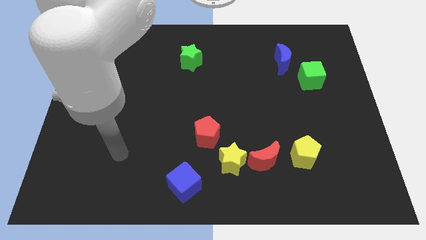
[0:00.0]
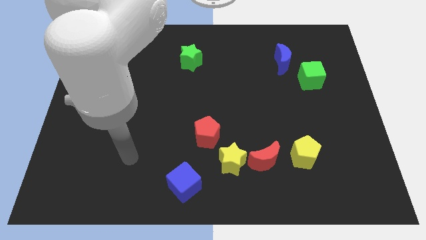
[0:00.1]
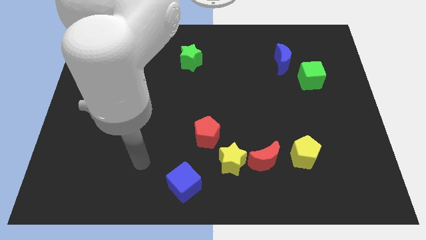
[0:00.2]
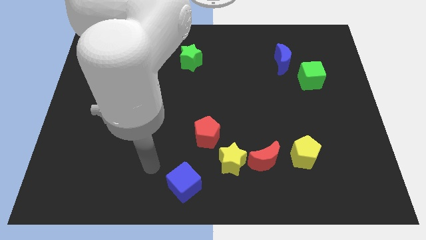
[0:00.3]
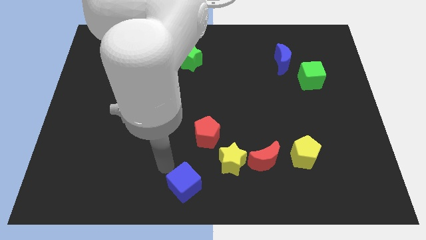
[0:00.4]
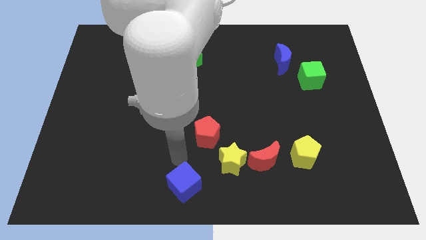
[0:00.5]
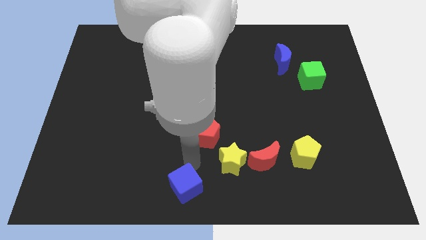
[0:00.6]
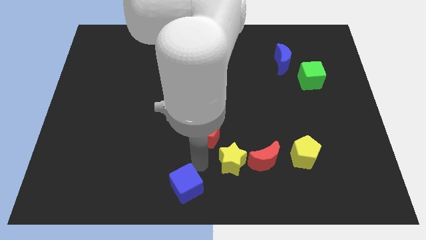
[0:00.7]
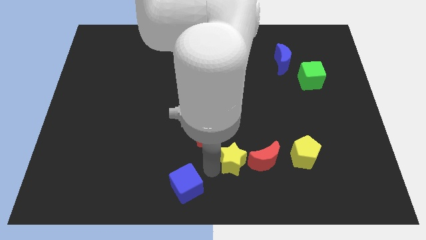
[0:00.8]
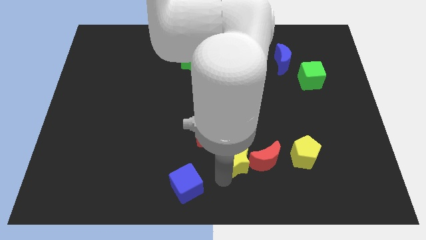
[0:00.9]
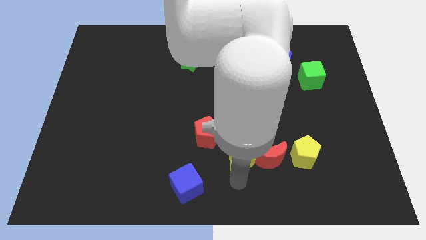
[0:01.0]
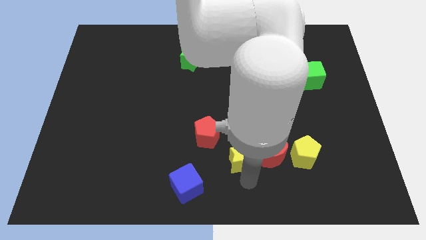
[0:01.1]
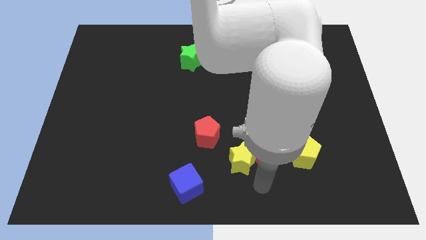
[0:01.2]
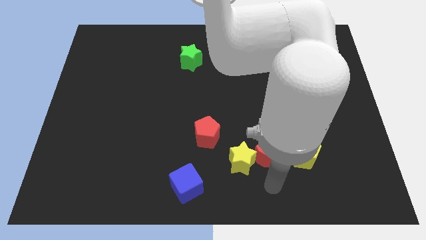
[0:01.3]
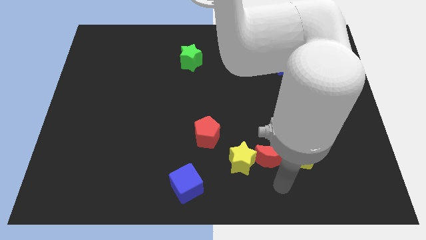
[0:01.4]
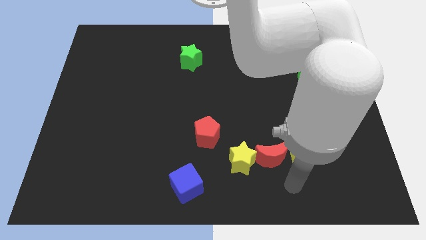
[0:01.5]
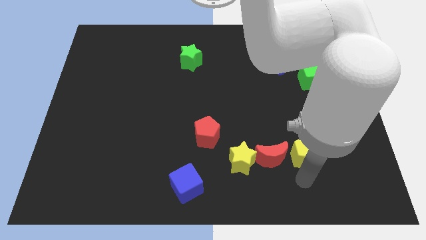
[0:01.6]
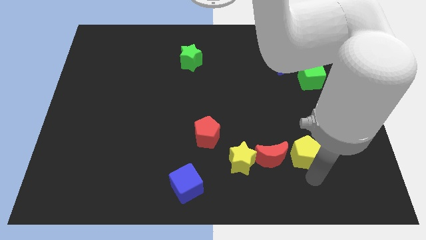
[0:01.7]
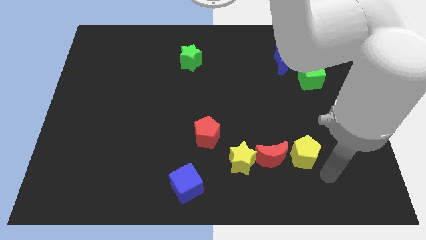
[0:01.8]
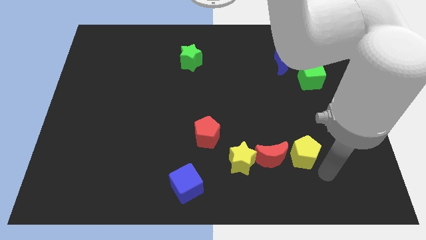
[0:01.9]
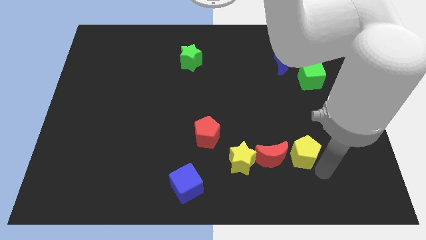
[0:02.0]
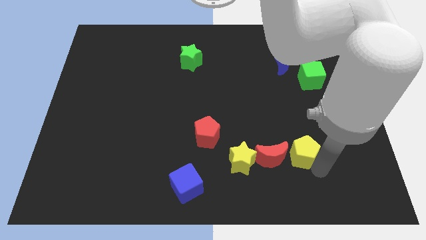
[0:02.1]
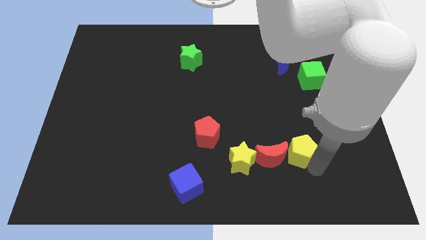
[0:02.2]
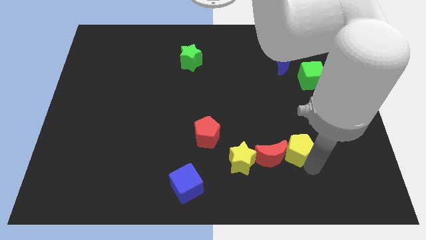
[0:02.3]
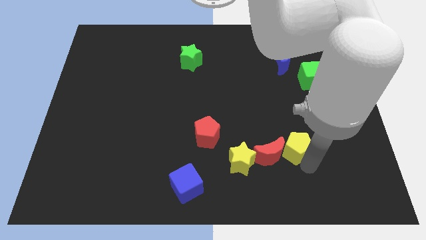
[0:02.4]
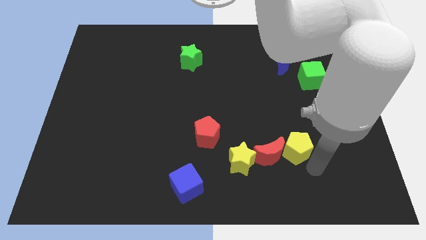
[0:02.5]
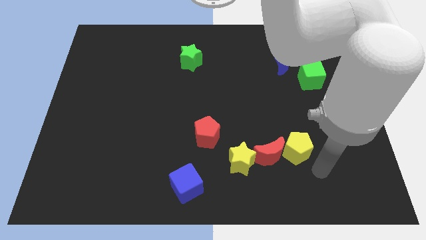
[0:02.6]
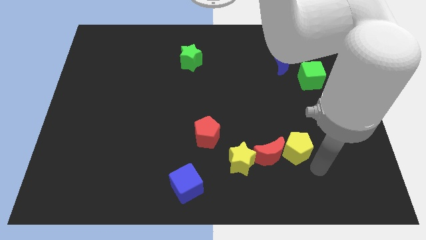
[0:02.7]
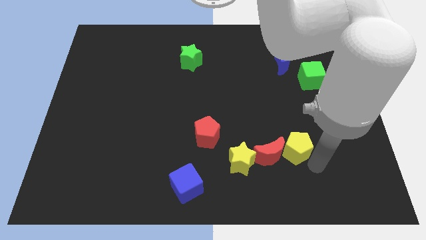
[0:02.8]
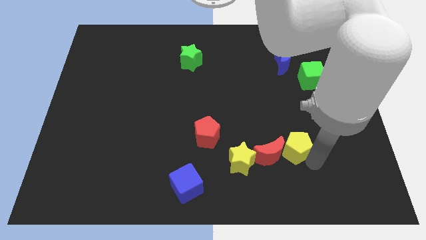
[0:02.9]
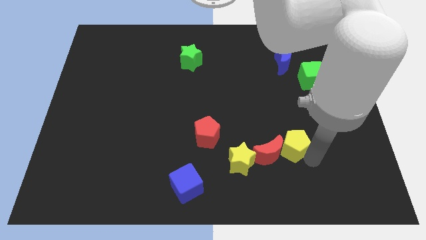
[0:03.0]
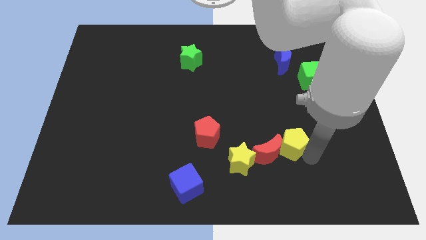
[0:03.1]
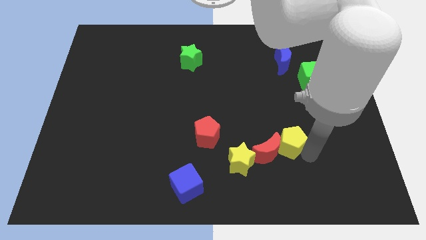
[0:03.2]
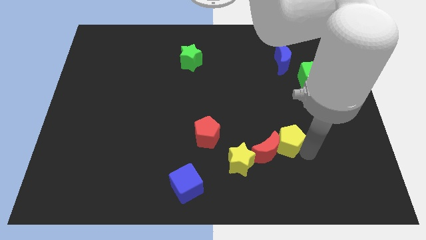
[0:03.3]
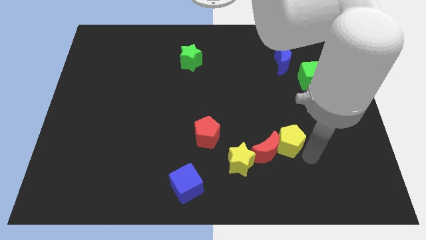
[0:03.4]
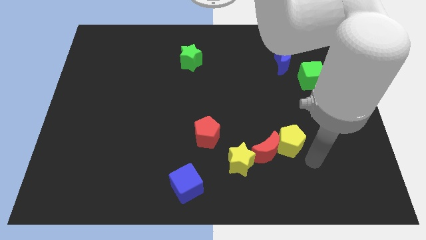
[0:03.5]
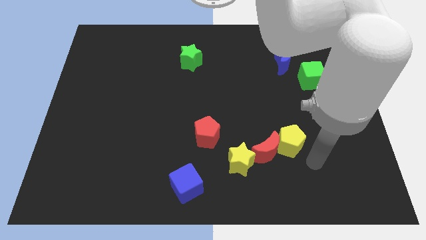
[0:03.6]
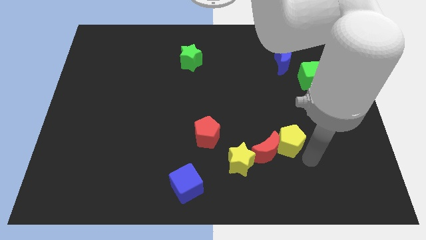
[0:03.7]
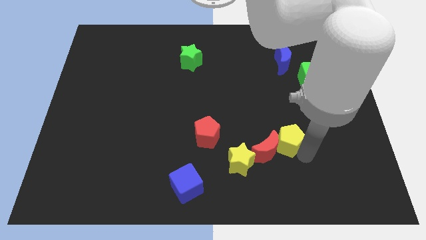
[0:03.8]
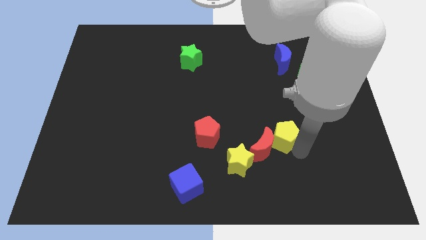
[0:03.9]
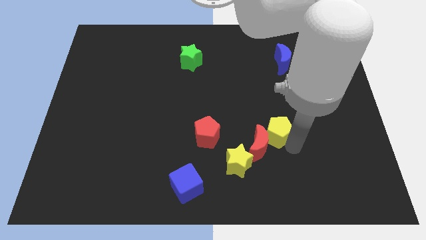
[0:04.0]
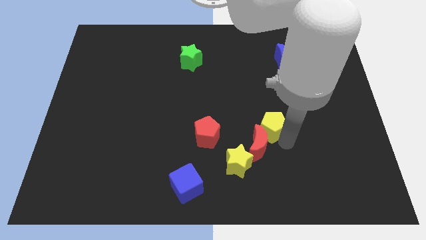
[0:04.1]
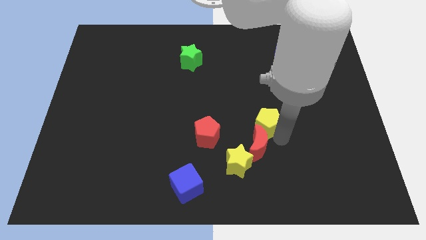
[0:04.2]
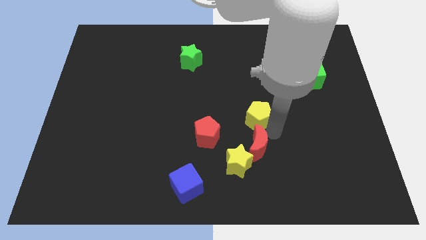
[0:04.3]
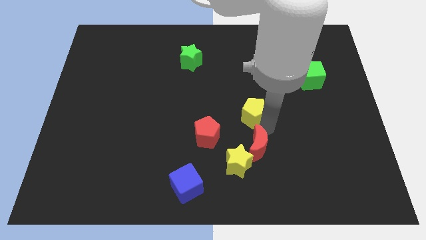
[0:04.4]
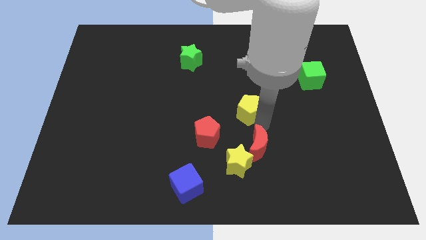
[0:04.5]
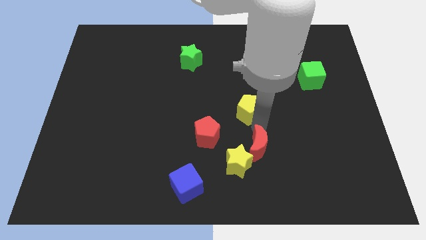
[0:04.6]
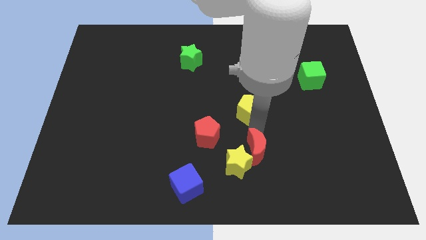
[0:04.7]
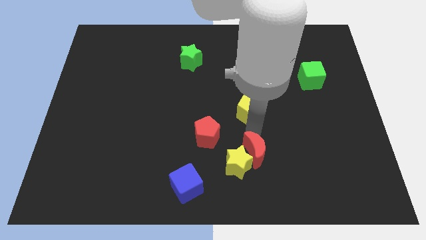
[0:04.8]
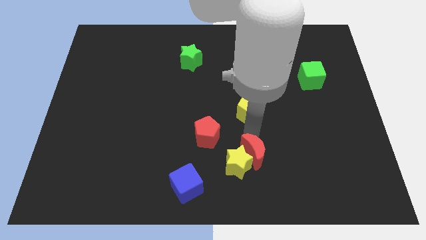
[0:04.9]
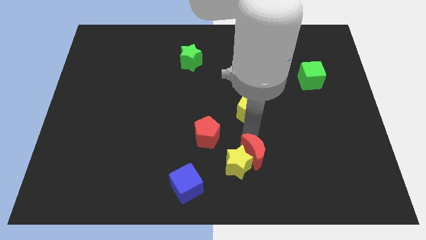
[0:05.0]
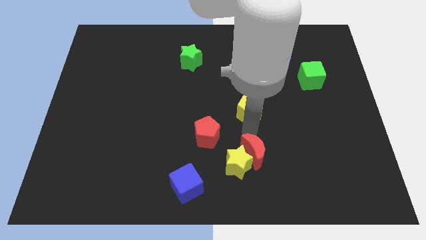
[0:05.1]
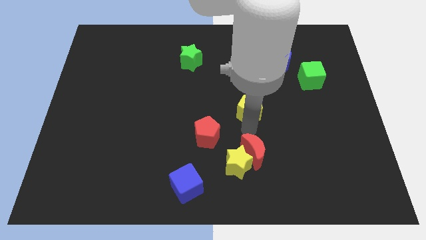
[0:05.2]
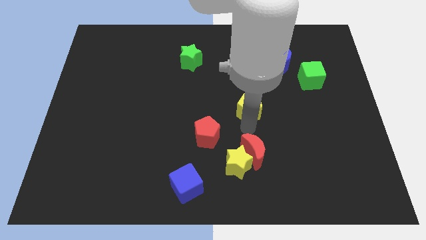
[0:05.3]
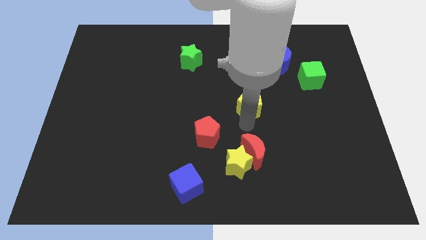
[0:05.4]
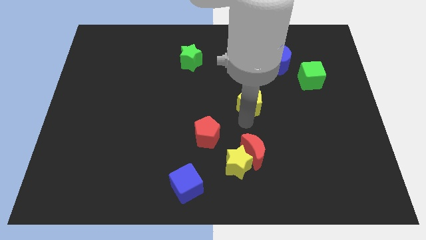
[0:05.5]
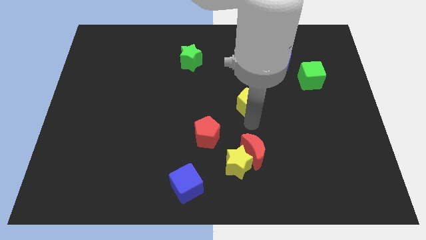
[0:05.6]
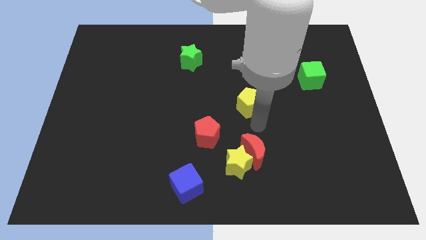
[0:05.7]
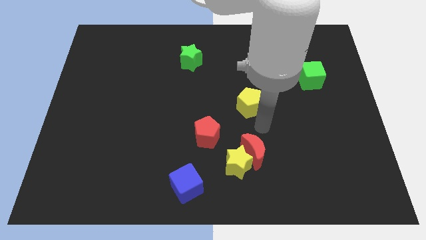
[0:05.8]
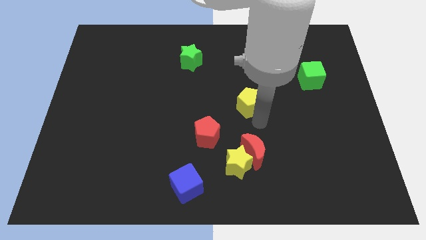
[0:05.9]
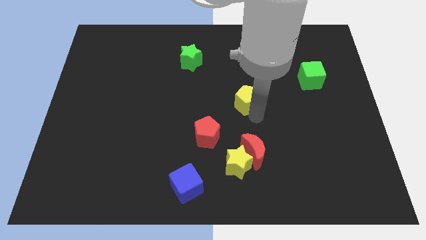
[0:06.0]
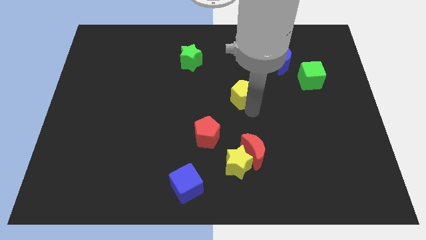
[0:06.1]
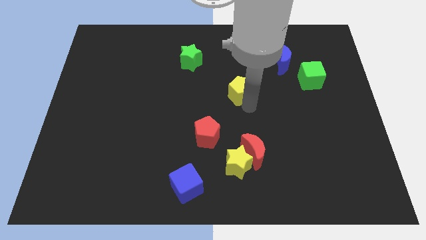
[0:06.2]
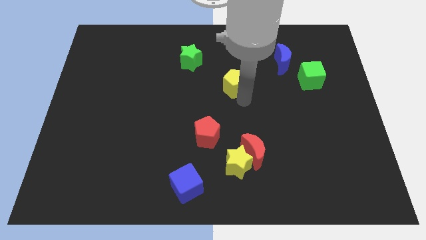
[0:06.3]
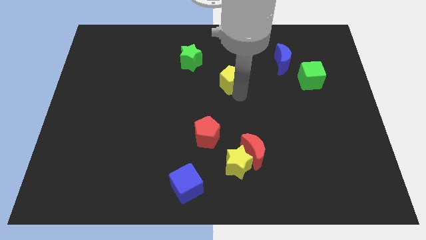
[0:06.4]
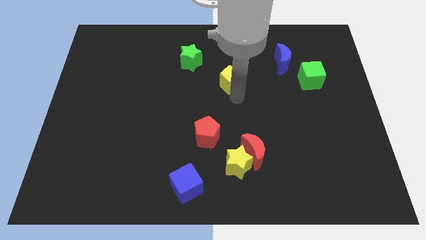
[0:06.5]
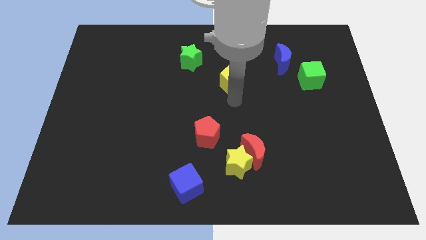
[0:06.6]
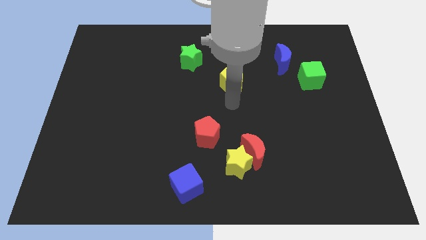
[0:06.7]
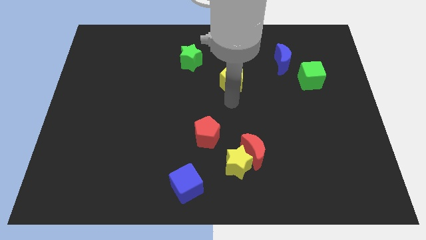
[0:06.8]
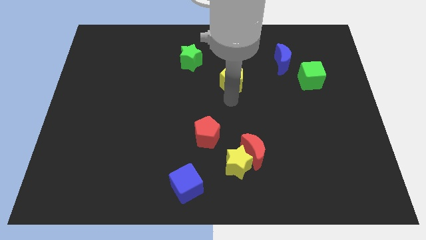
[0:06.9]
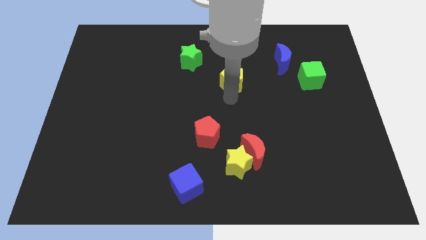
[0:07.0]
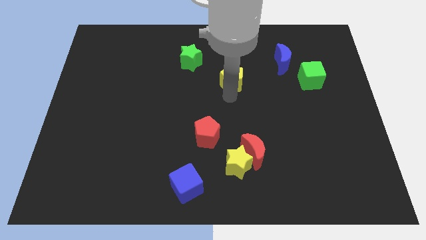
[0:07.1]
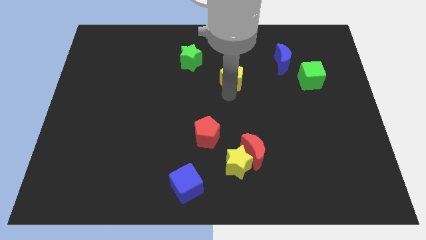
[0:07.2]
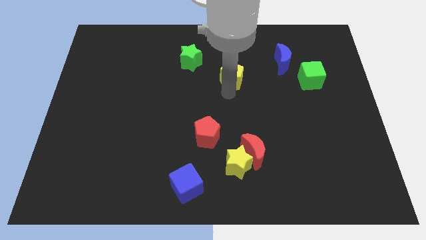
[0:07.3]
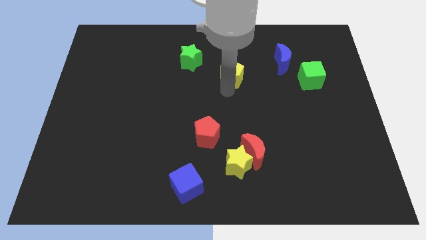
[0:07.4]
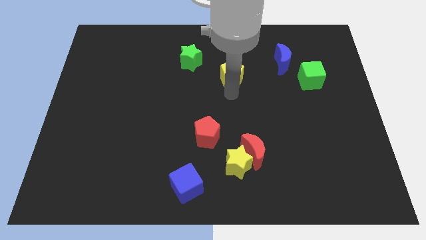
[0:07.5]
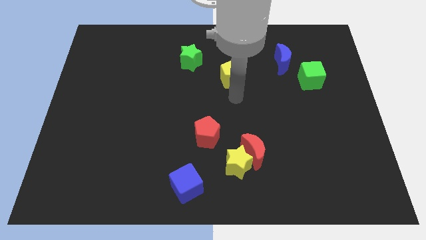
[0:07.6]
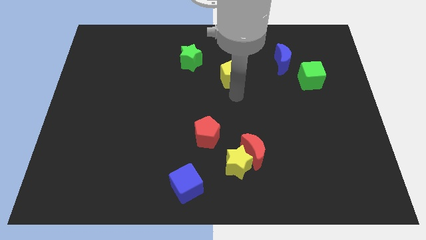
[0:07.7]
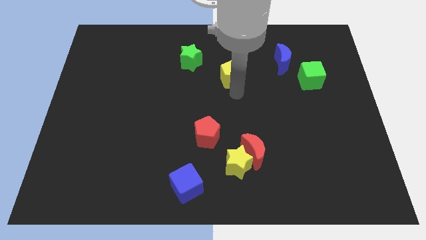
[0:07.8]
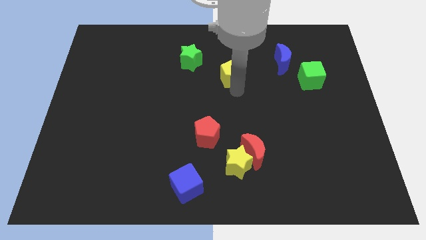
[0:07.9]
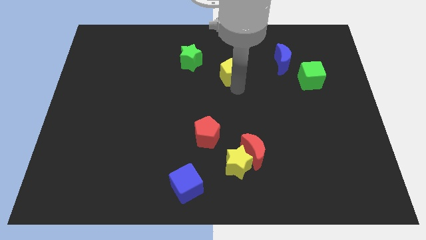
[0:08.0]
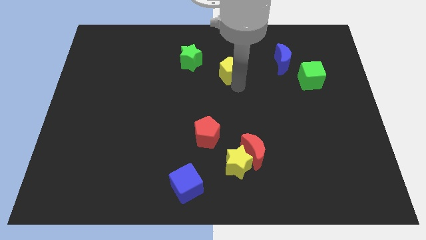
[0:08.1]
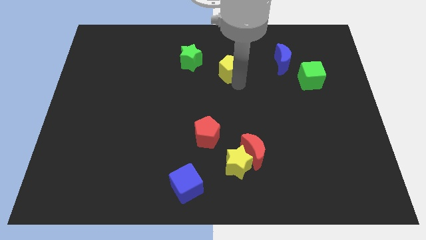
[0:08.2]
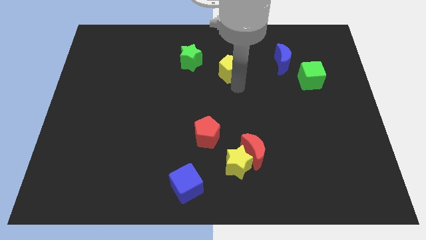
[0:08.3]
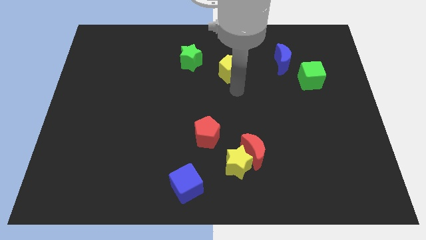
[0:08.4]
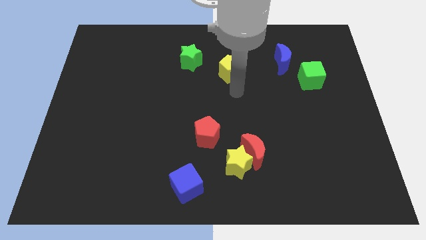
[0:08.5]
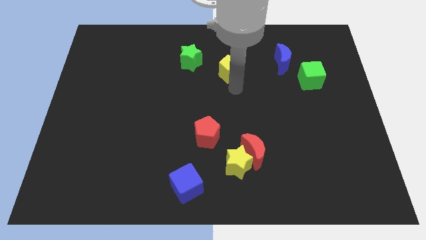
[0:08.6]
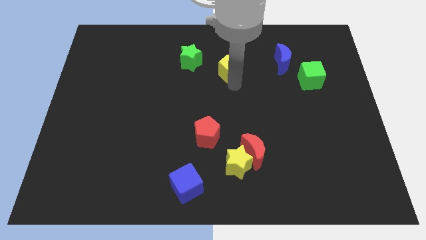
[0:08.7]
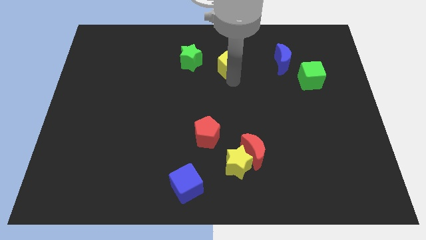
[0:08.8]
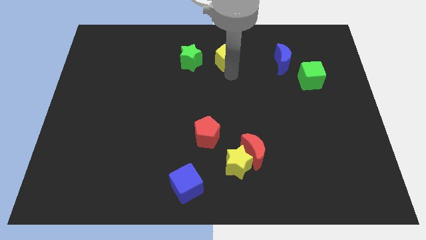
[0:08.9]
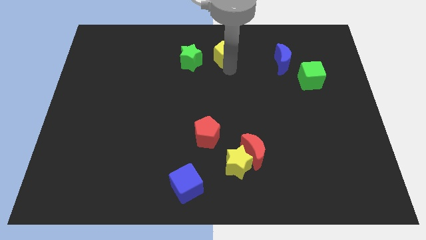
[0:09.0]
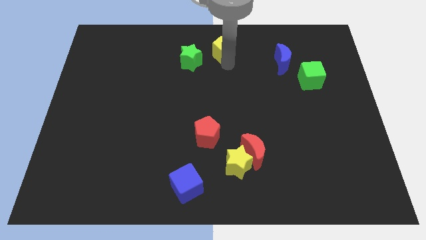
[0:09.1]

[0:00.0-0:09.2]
slide the yellow pentagon to the towards your base
